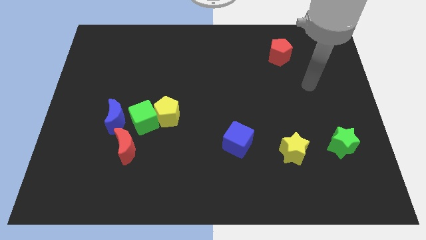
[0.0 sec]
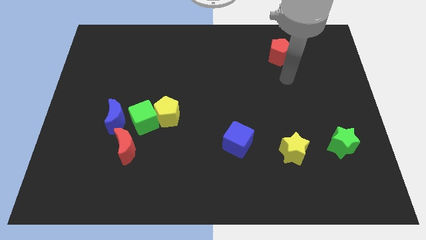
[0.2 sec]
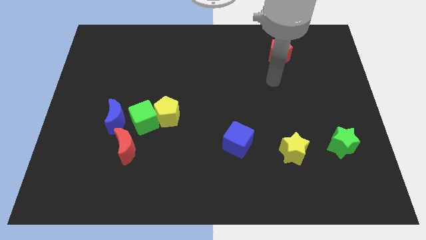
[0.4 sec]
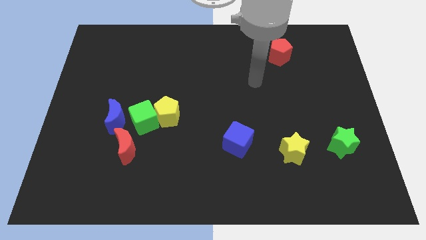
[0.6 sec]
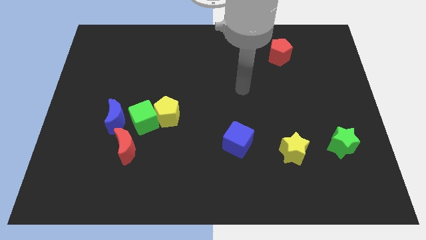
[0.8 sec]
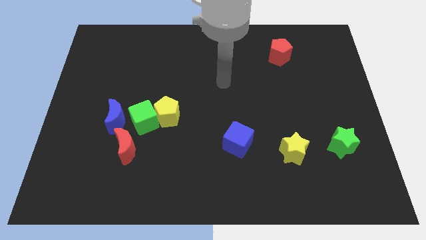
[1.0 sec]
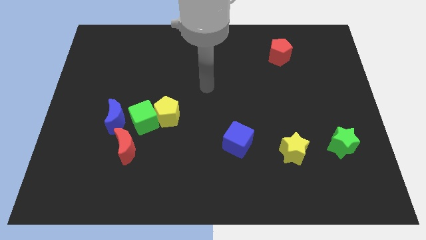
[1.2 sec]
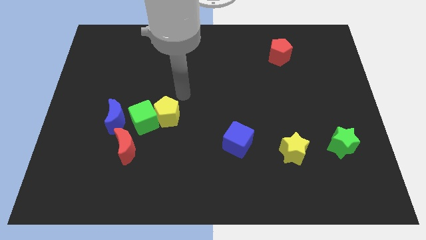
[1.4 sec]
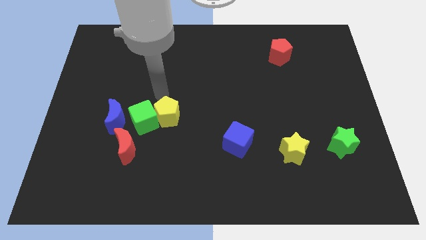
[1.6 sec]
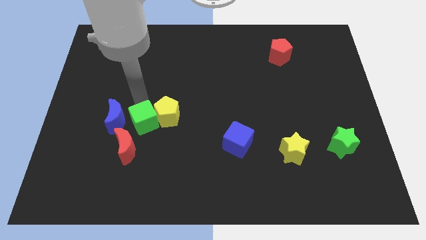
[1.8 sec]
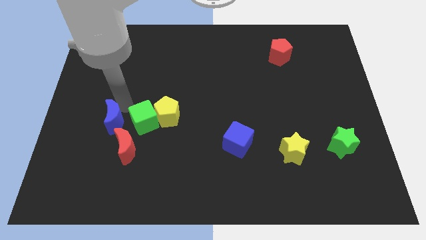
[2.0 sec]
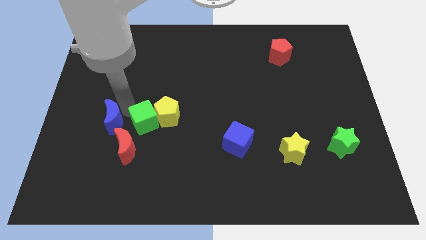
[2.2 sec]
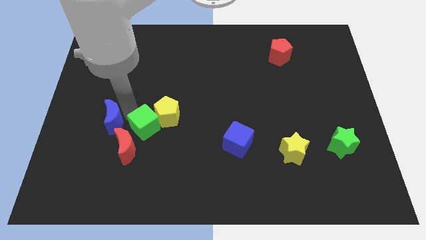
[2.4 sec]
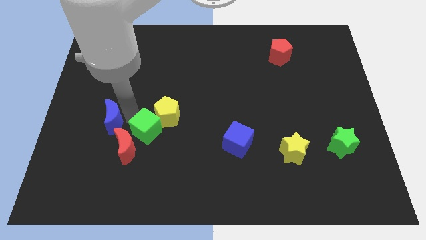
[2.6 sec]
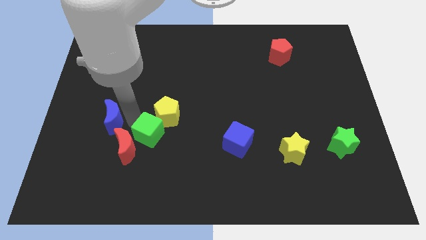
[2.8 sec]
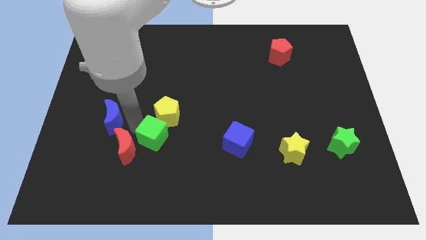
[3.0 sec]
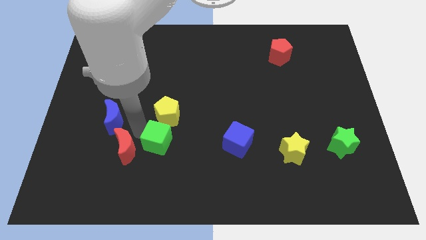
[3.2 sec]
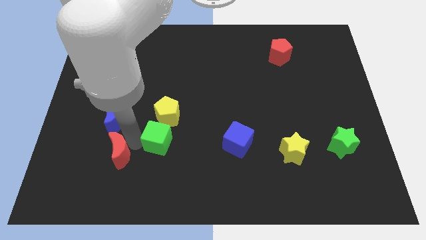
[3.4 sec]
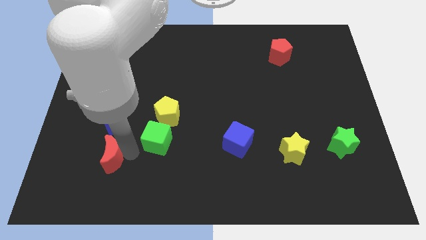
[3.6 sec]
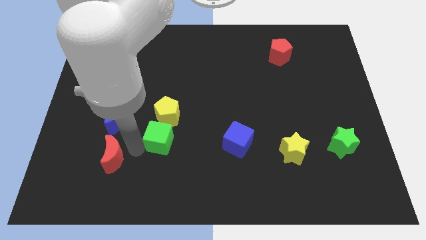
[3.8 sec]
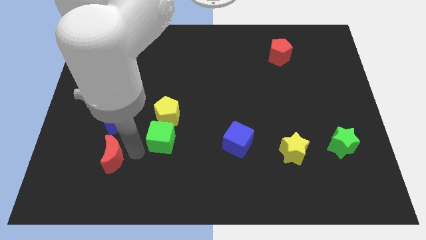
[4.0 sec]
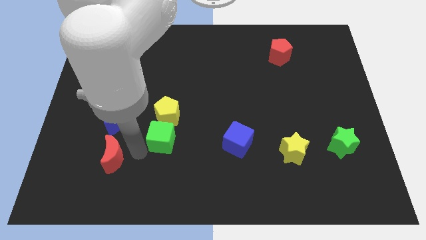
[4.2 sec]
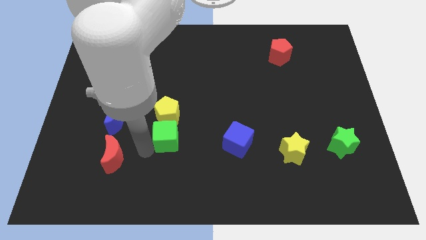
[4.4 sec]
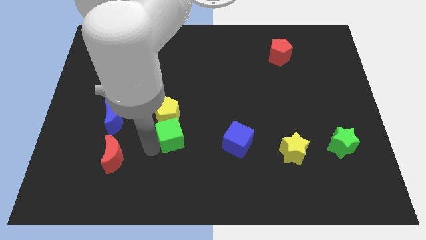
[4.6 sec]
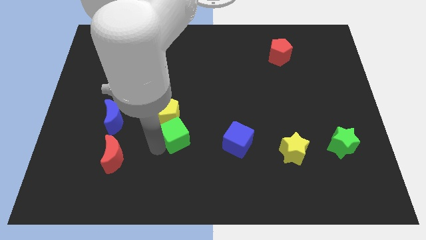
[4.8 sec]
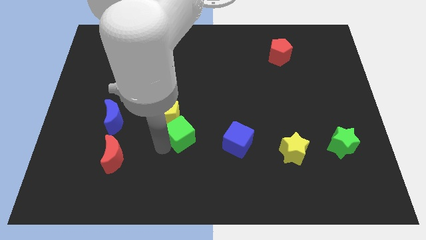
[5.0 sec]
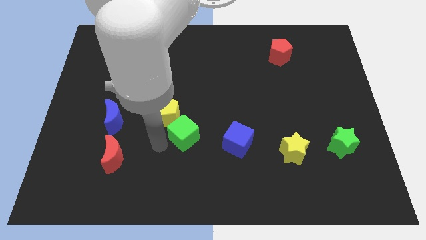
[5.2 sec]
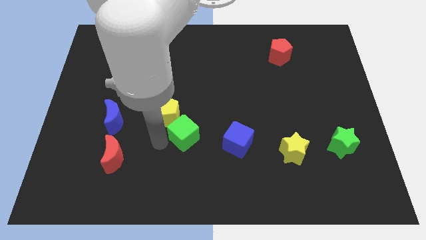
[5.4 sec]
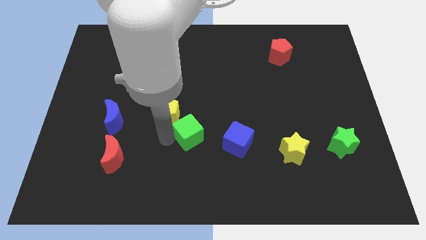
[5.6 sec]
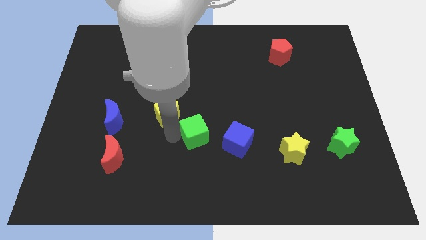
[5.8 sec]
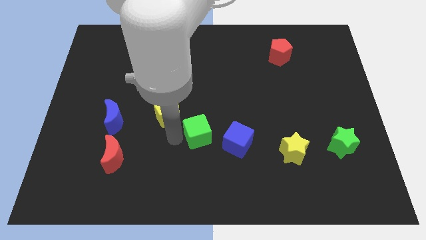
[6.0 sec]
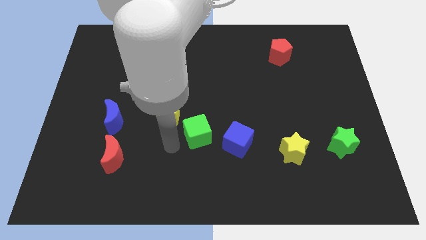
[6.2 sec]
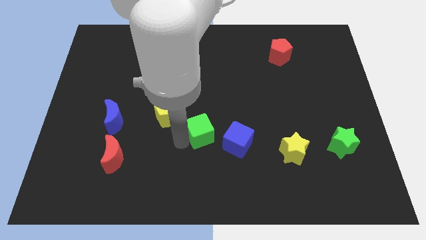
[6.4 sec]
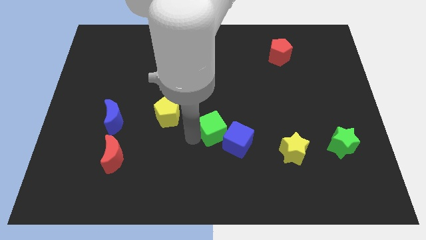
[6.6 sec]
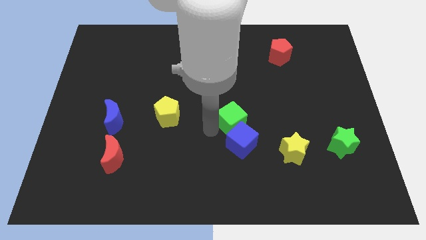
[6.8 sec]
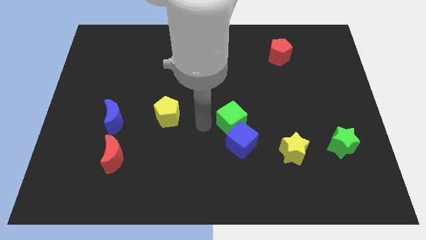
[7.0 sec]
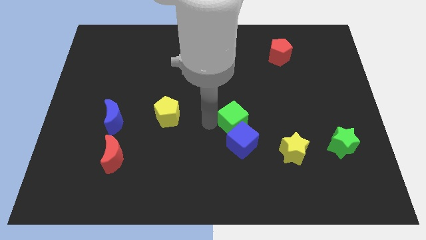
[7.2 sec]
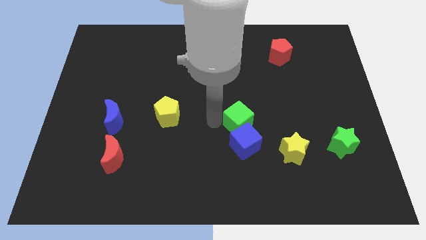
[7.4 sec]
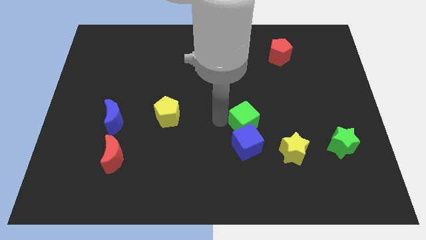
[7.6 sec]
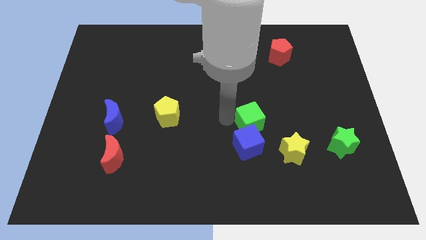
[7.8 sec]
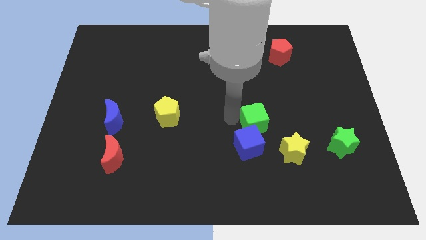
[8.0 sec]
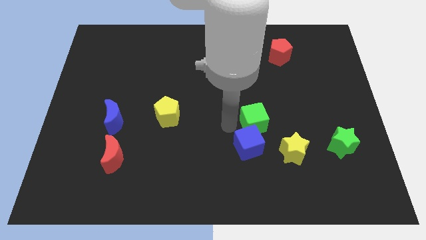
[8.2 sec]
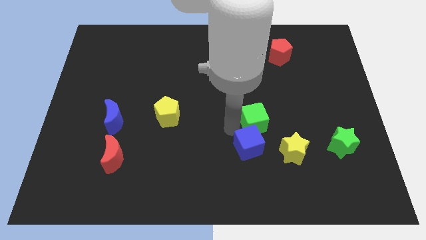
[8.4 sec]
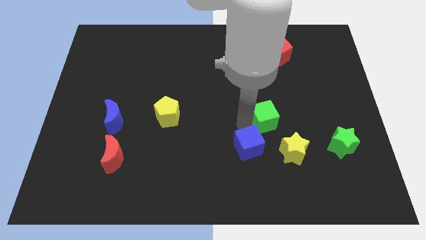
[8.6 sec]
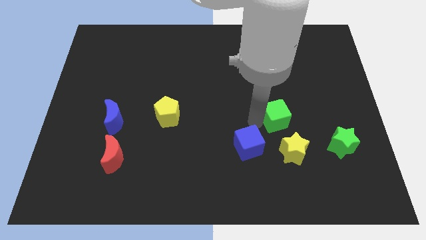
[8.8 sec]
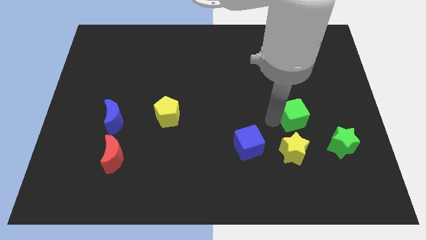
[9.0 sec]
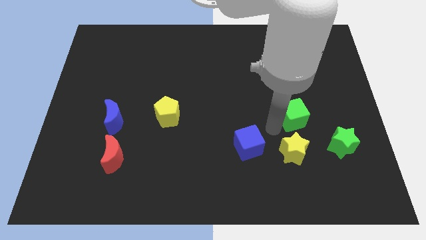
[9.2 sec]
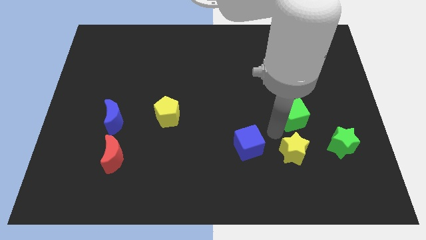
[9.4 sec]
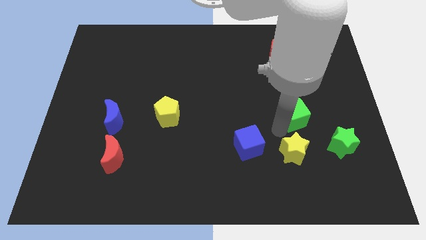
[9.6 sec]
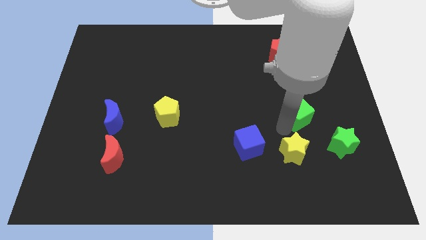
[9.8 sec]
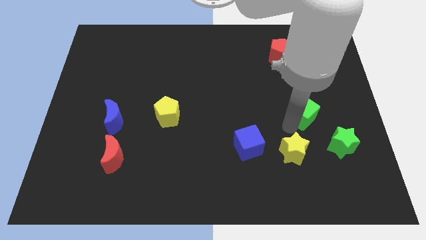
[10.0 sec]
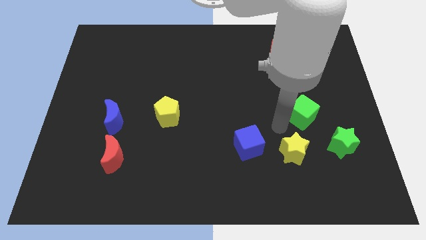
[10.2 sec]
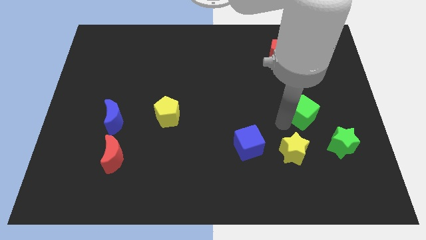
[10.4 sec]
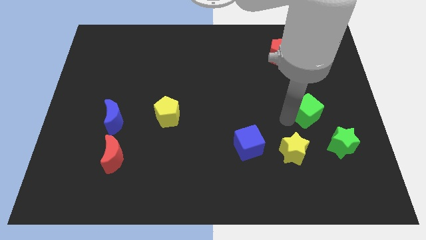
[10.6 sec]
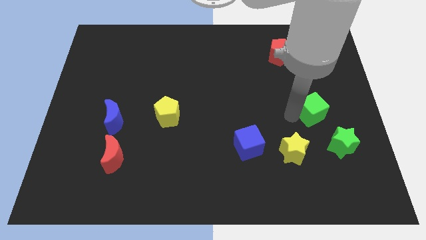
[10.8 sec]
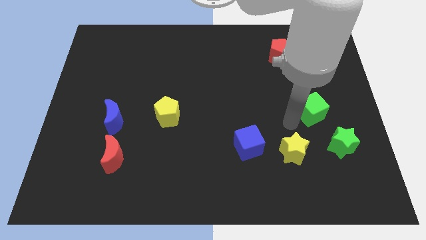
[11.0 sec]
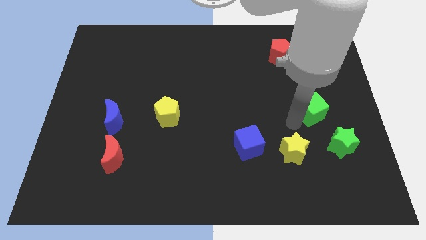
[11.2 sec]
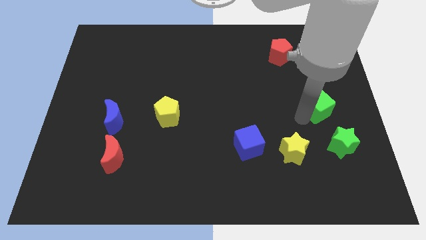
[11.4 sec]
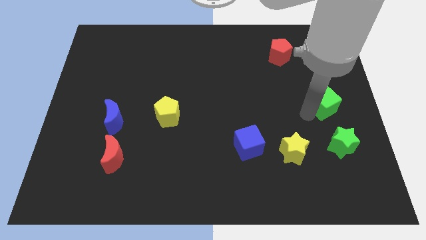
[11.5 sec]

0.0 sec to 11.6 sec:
put the green cube to the center right
